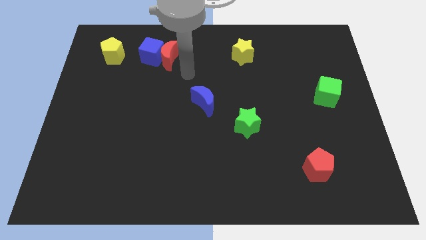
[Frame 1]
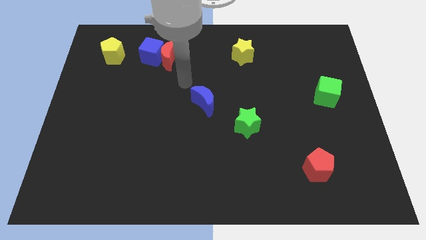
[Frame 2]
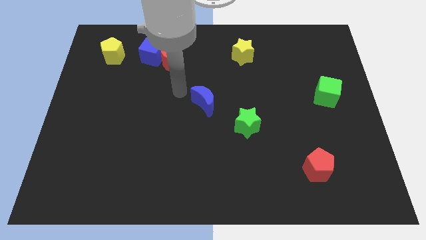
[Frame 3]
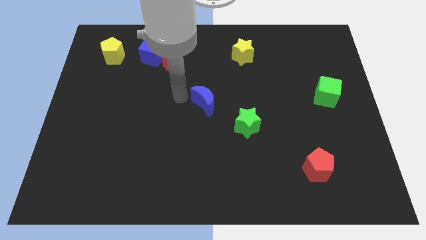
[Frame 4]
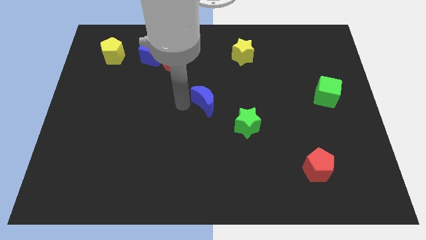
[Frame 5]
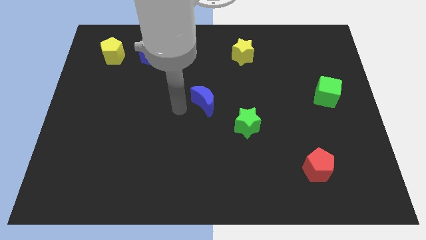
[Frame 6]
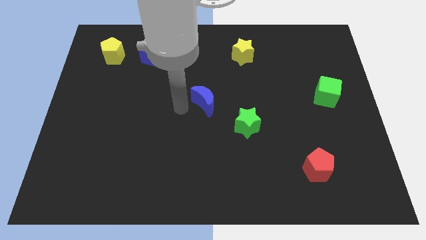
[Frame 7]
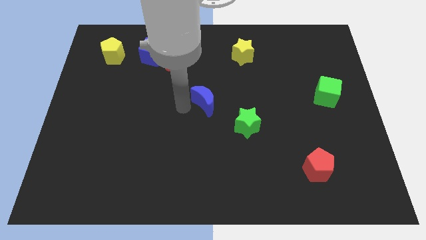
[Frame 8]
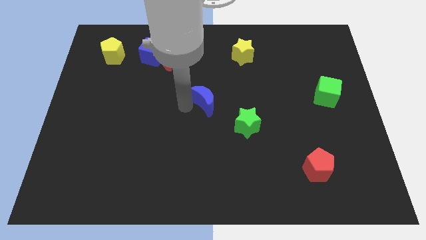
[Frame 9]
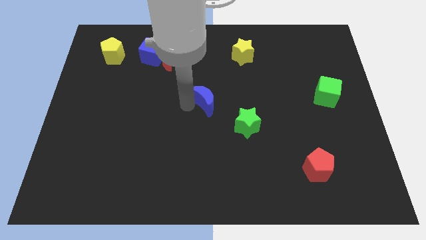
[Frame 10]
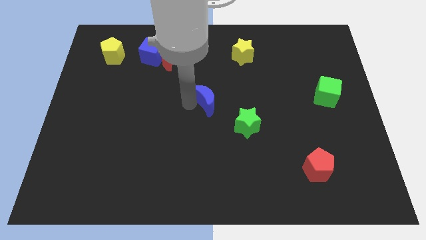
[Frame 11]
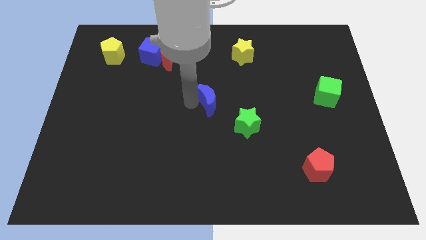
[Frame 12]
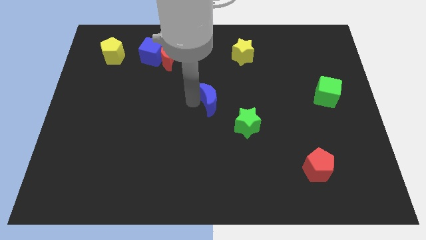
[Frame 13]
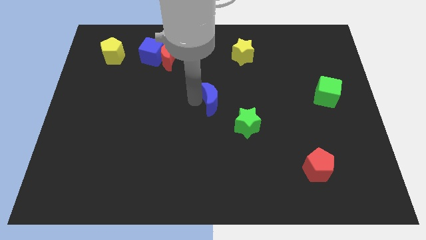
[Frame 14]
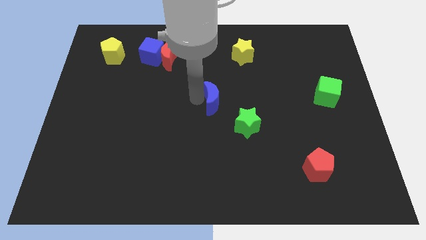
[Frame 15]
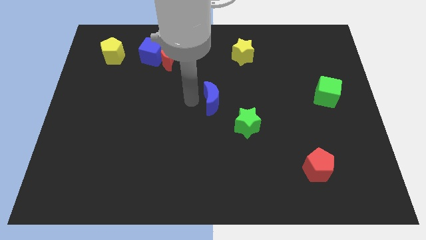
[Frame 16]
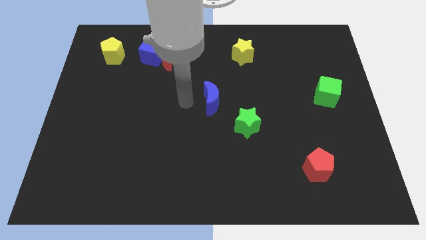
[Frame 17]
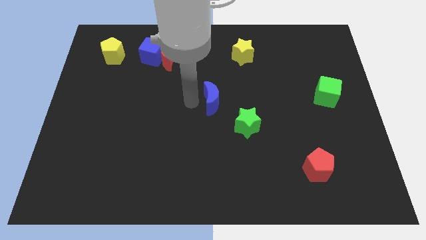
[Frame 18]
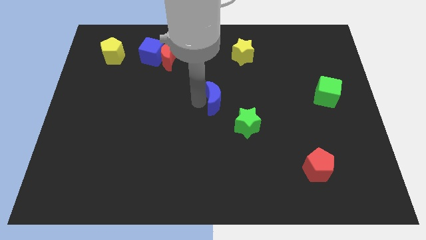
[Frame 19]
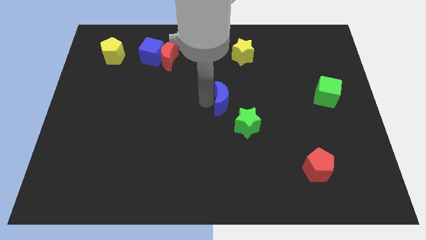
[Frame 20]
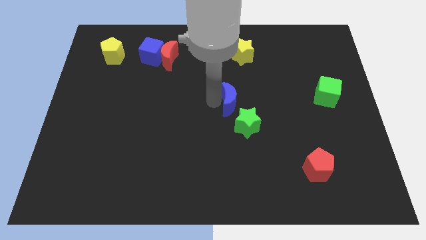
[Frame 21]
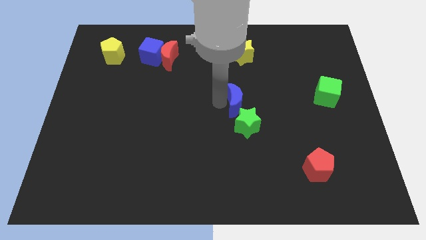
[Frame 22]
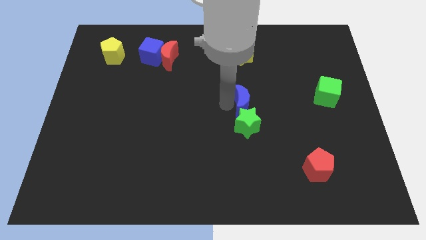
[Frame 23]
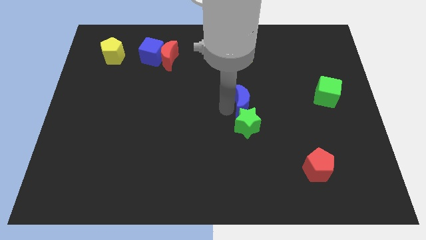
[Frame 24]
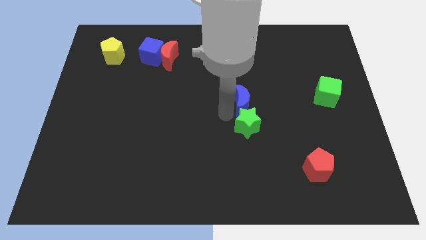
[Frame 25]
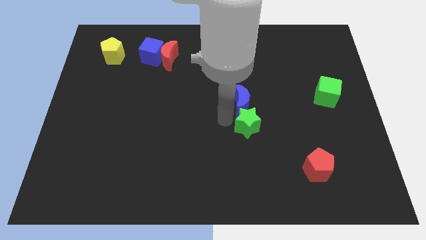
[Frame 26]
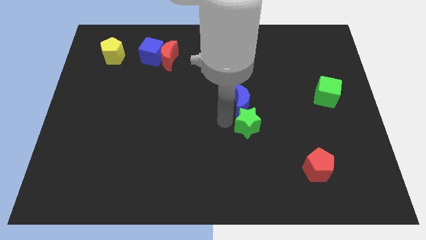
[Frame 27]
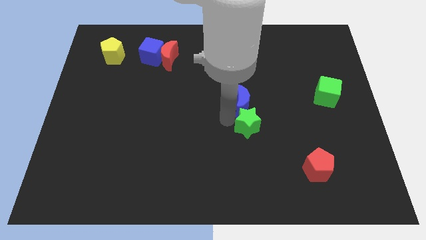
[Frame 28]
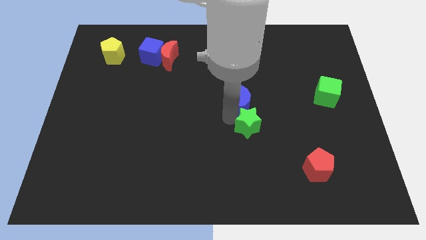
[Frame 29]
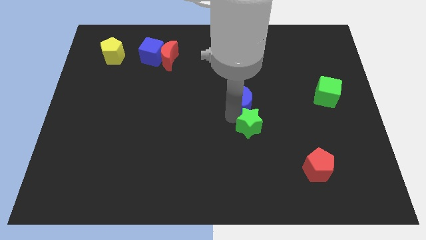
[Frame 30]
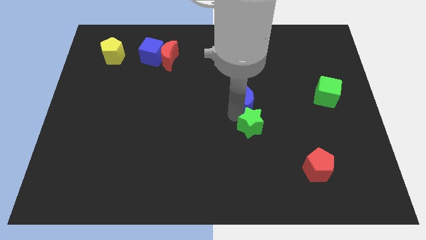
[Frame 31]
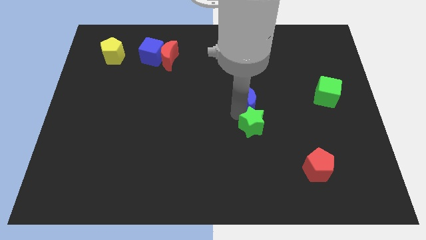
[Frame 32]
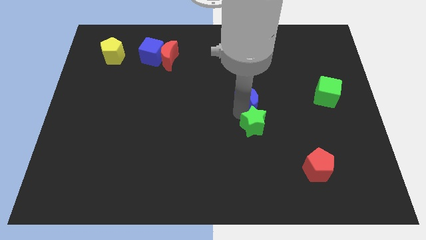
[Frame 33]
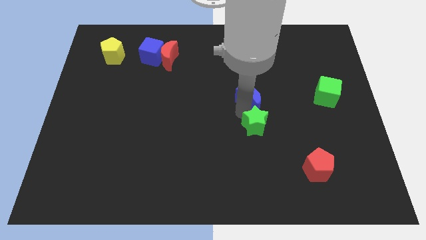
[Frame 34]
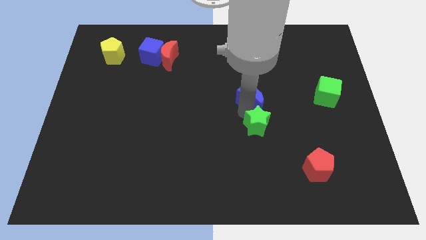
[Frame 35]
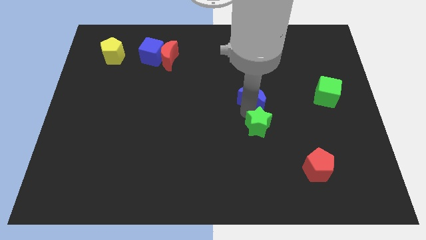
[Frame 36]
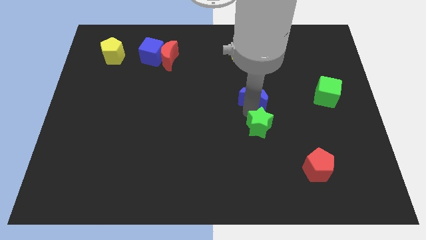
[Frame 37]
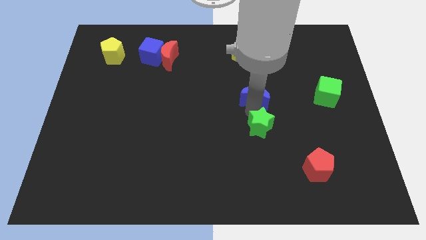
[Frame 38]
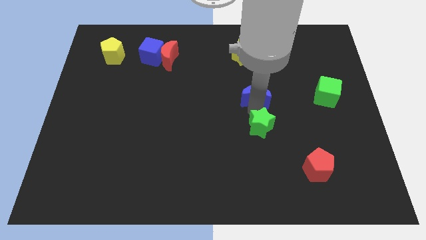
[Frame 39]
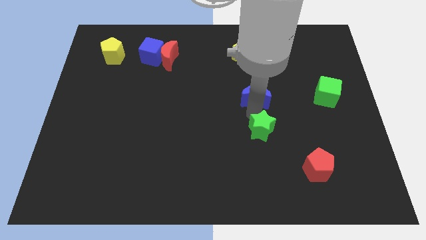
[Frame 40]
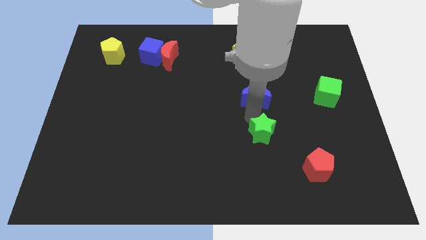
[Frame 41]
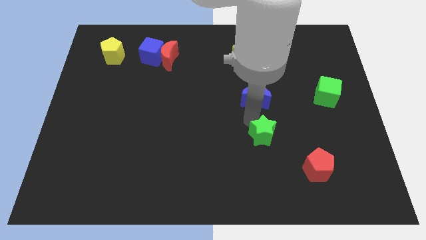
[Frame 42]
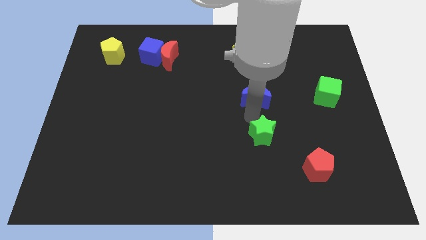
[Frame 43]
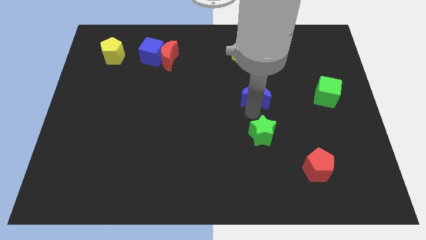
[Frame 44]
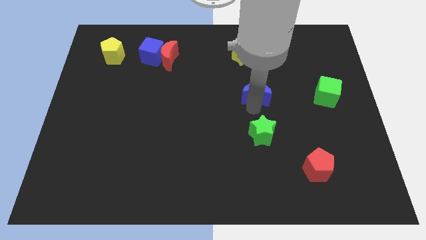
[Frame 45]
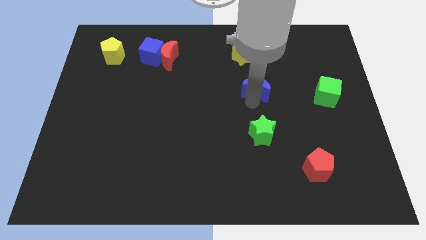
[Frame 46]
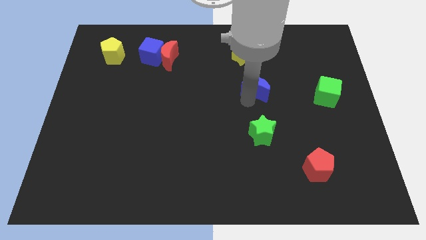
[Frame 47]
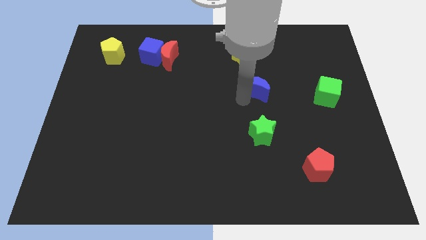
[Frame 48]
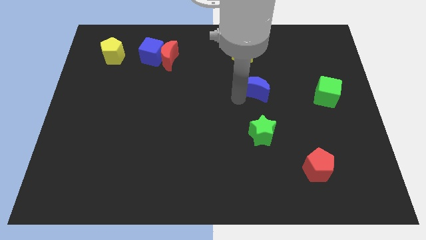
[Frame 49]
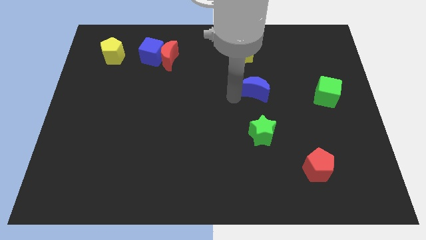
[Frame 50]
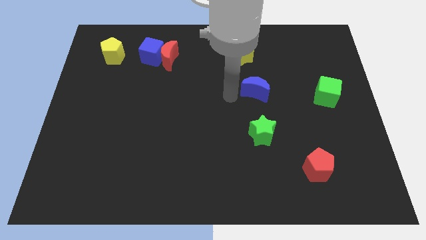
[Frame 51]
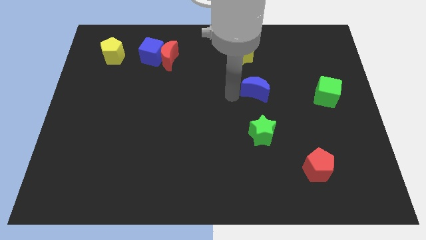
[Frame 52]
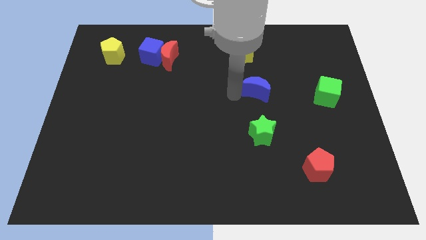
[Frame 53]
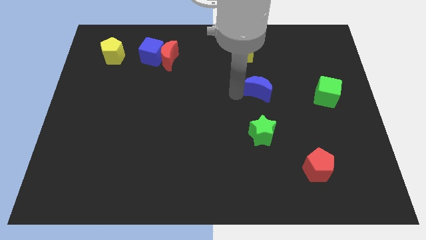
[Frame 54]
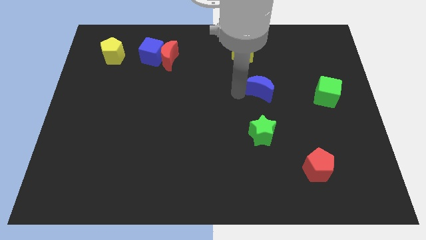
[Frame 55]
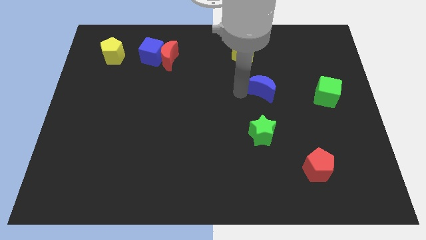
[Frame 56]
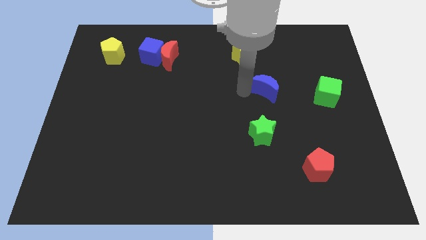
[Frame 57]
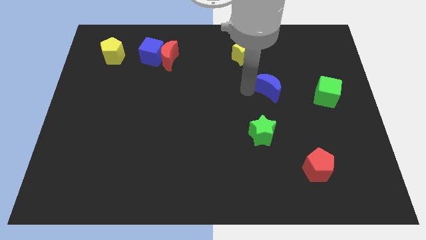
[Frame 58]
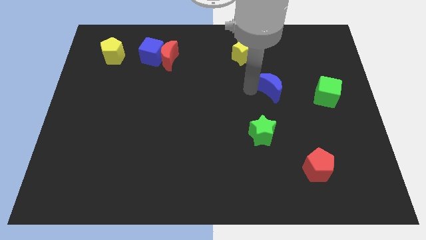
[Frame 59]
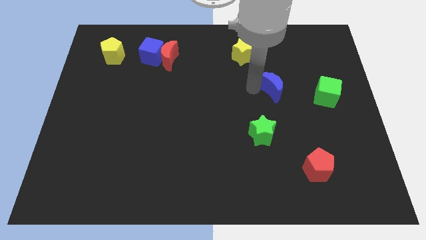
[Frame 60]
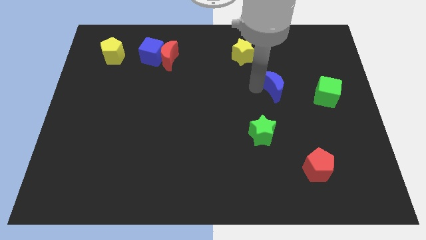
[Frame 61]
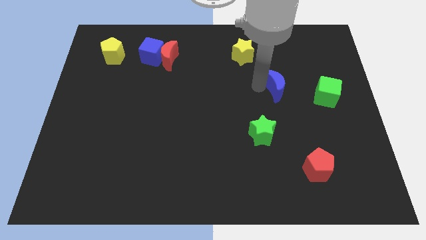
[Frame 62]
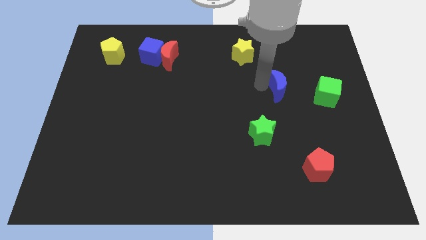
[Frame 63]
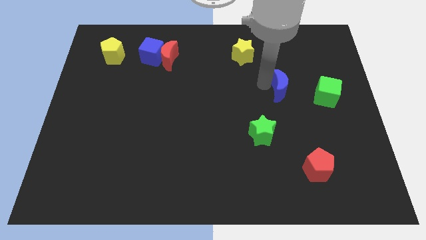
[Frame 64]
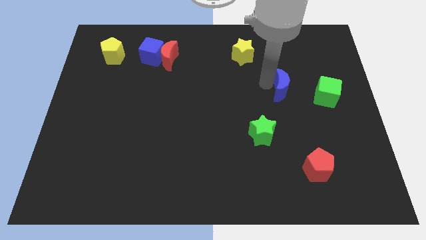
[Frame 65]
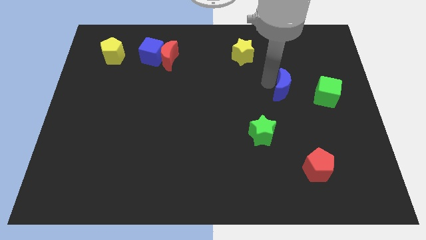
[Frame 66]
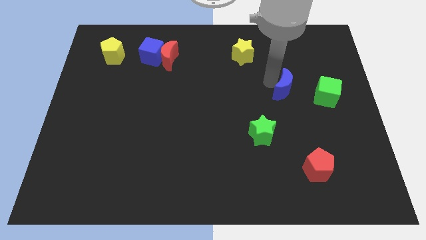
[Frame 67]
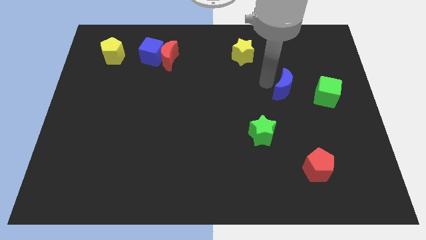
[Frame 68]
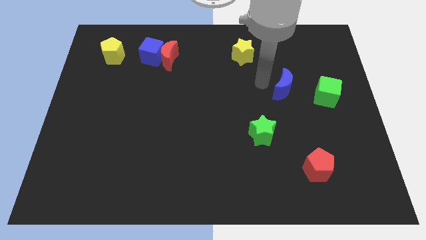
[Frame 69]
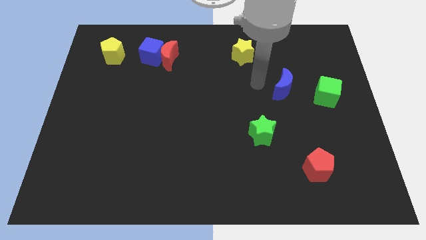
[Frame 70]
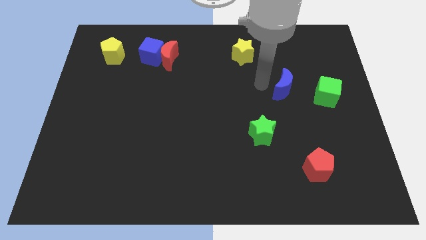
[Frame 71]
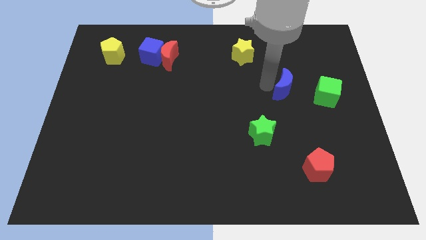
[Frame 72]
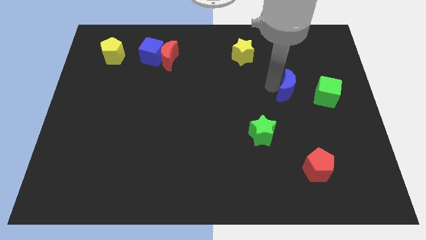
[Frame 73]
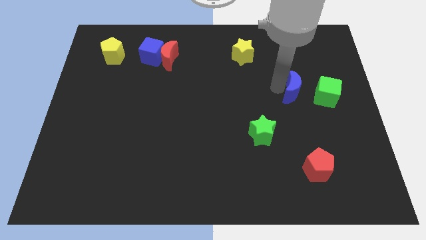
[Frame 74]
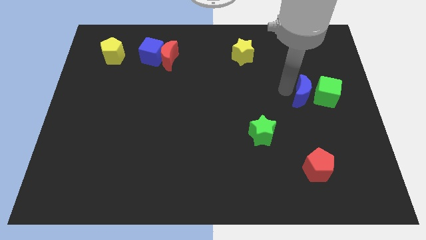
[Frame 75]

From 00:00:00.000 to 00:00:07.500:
move the blue moon next to the green cube
